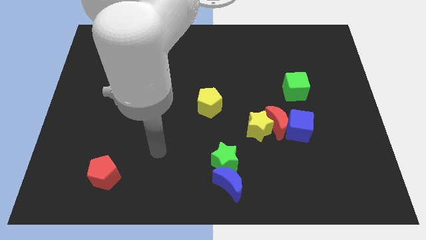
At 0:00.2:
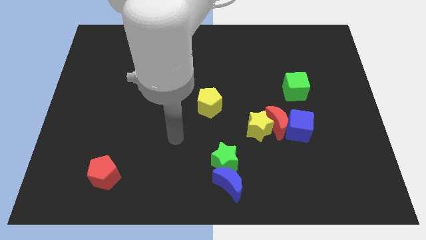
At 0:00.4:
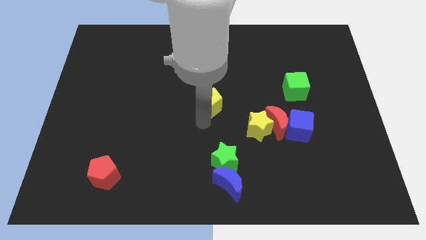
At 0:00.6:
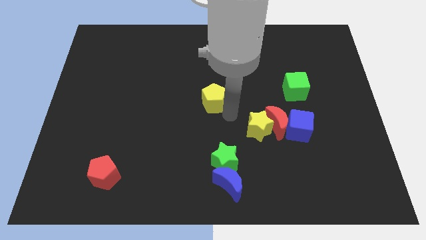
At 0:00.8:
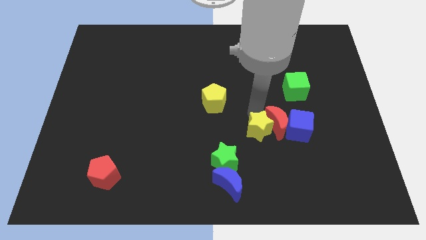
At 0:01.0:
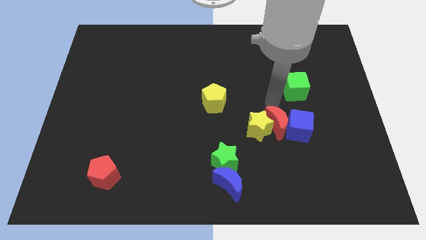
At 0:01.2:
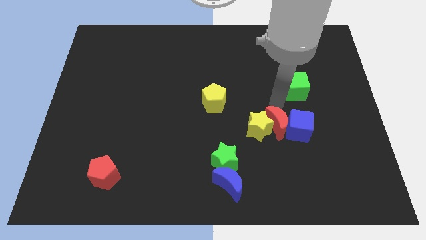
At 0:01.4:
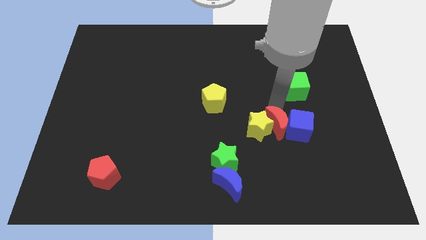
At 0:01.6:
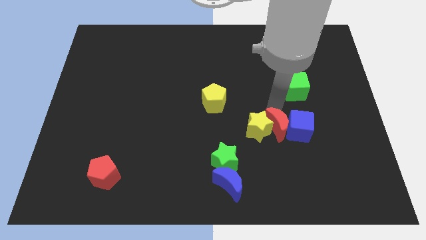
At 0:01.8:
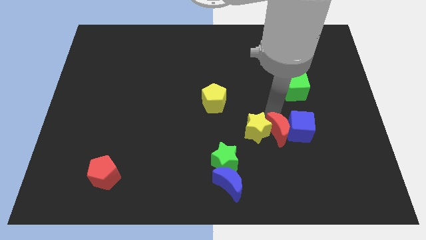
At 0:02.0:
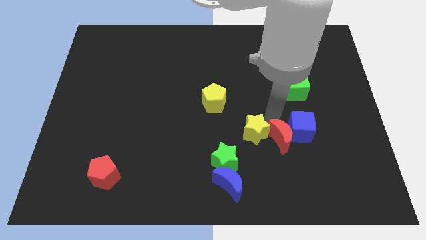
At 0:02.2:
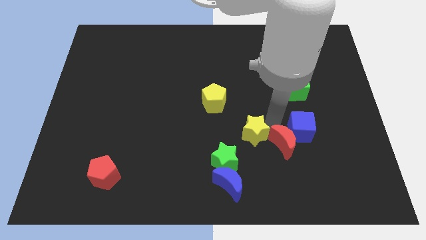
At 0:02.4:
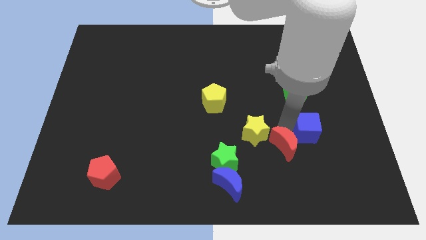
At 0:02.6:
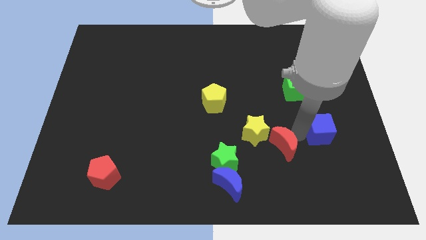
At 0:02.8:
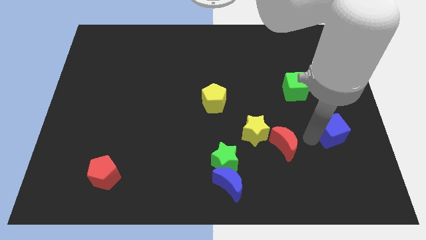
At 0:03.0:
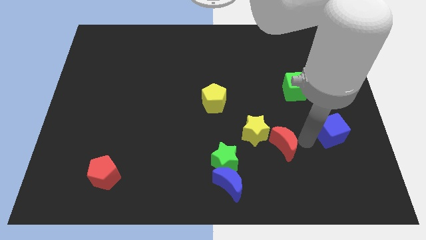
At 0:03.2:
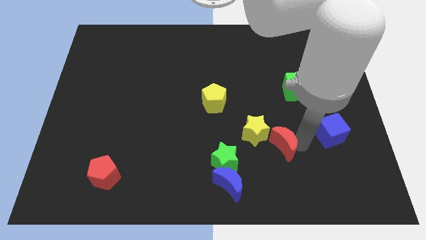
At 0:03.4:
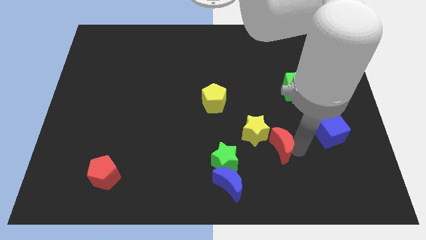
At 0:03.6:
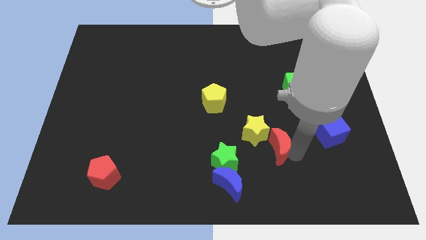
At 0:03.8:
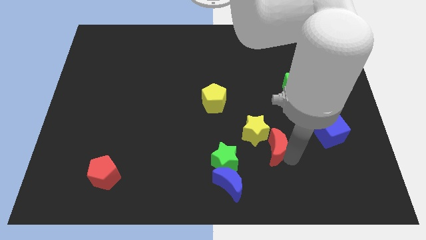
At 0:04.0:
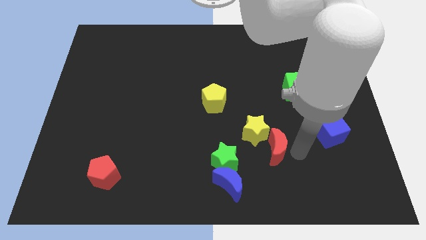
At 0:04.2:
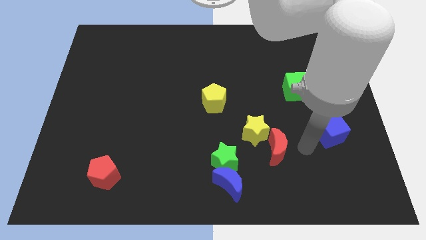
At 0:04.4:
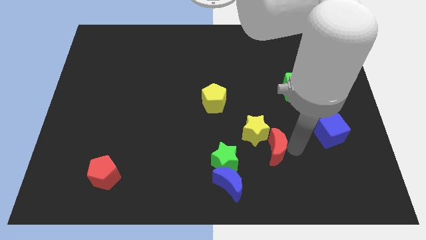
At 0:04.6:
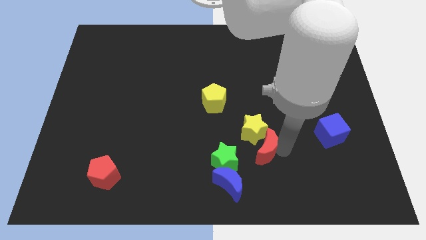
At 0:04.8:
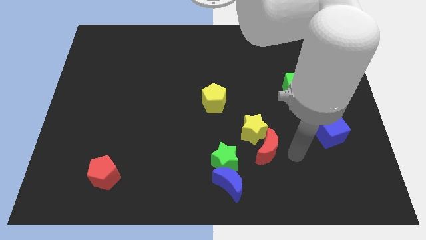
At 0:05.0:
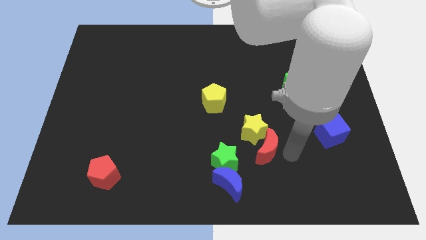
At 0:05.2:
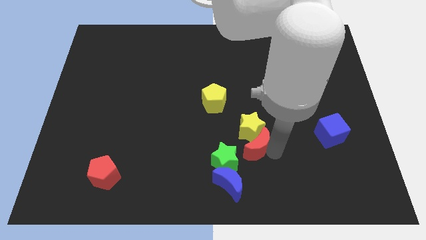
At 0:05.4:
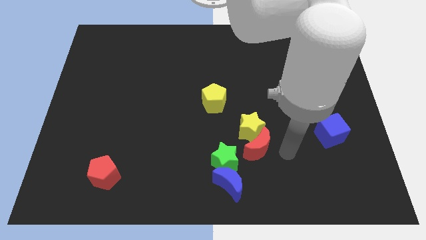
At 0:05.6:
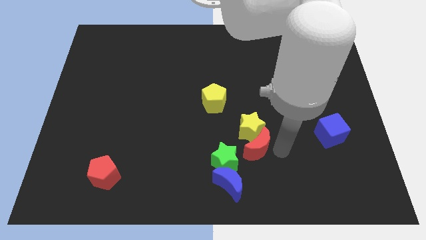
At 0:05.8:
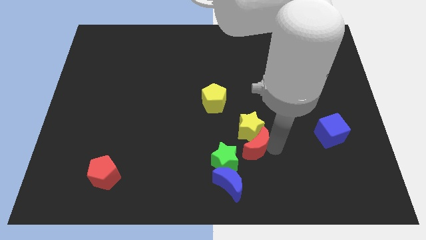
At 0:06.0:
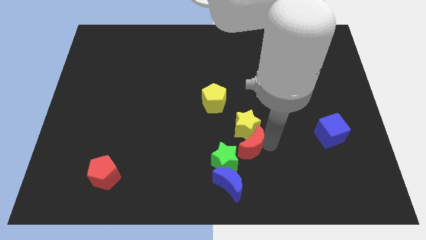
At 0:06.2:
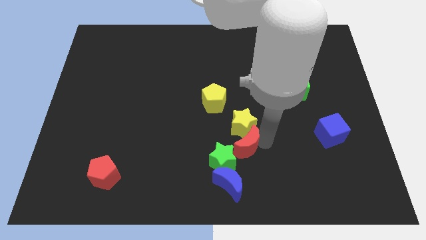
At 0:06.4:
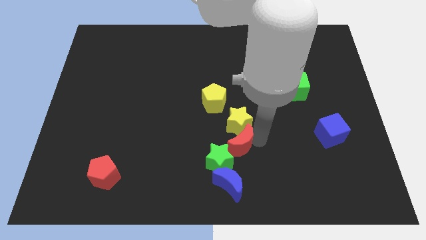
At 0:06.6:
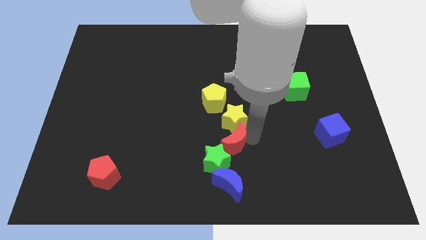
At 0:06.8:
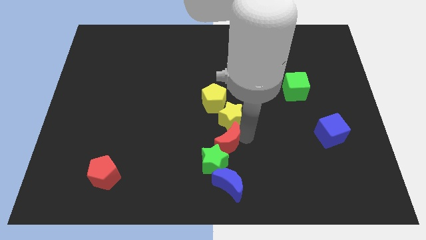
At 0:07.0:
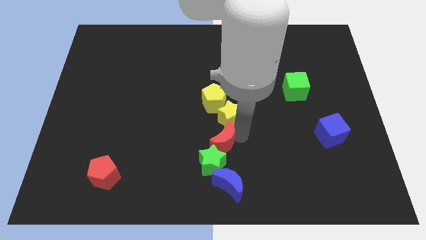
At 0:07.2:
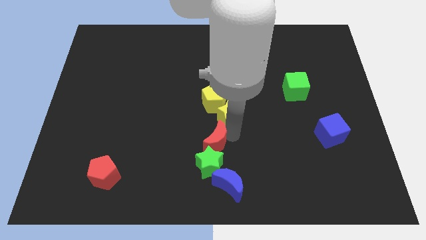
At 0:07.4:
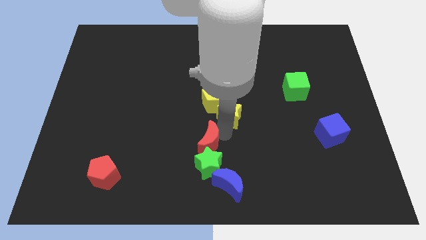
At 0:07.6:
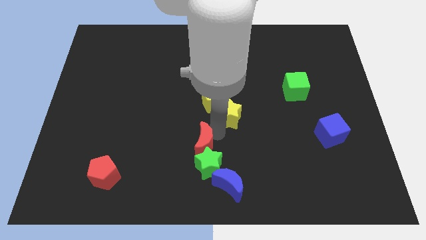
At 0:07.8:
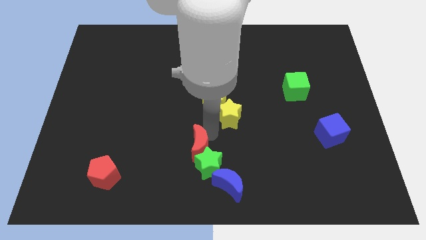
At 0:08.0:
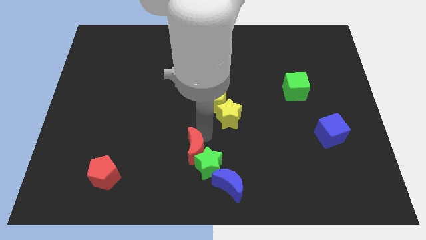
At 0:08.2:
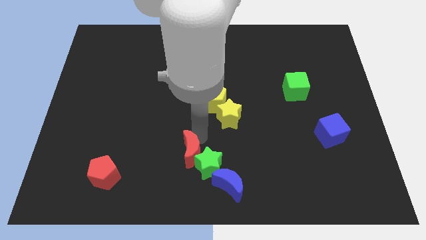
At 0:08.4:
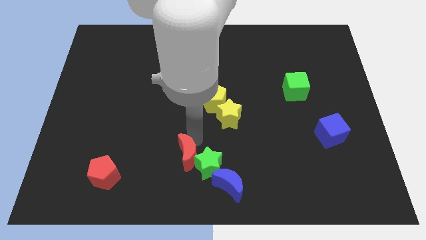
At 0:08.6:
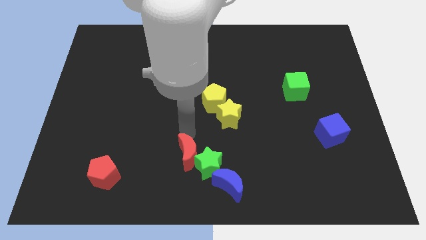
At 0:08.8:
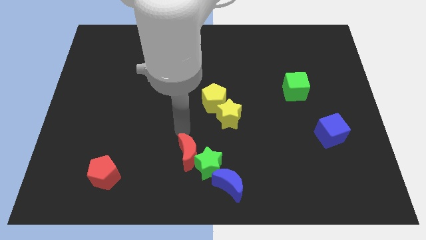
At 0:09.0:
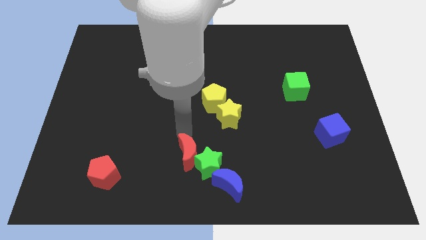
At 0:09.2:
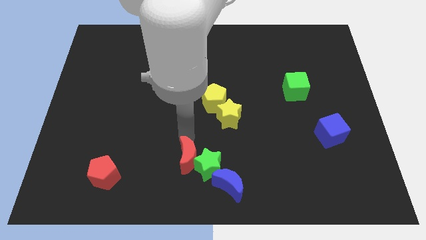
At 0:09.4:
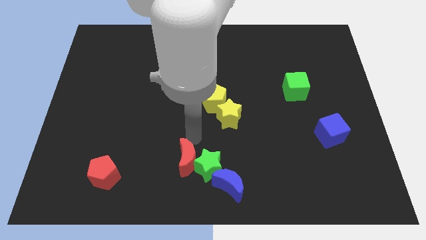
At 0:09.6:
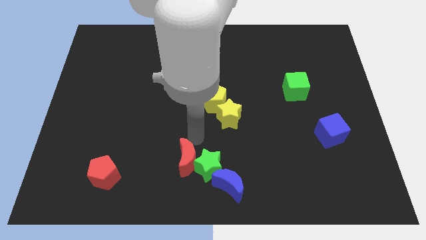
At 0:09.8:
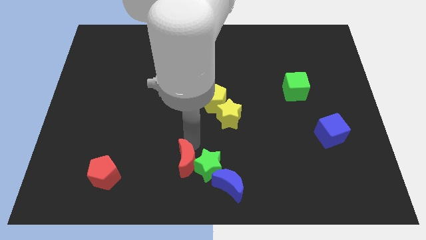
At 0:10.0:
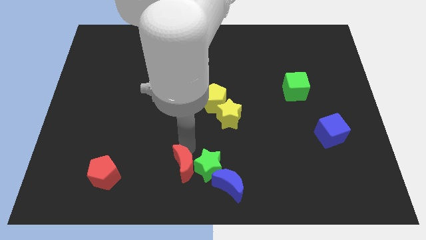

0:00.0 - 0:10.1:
move the red moon to the left of the blue moon

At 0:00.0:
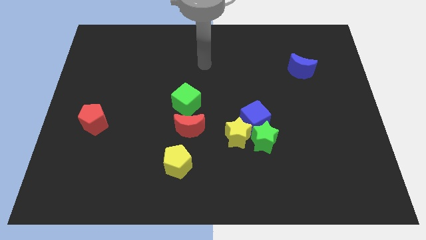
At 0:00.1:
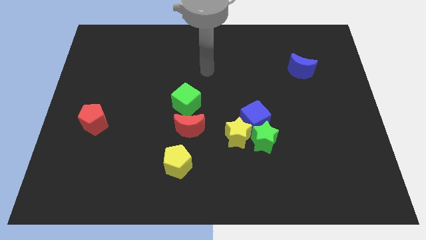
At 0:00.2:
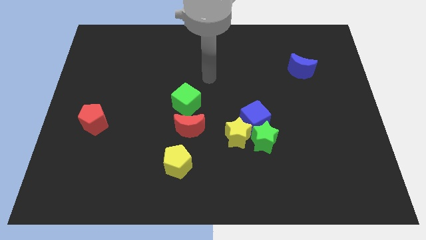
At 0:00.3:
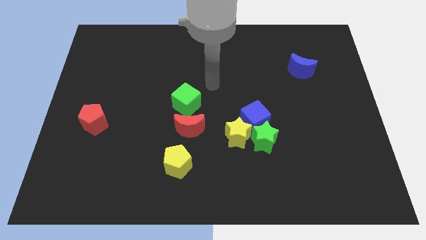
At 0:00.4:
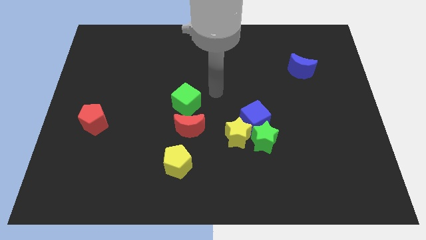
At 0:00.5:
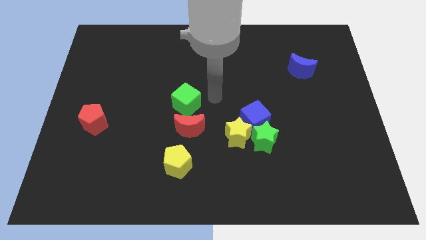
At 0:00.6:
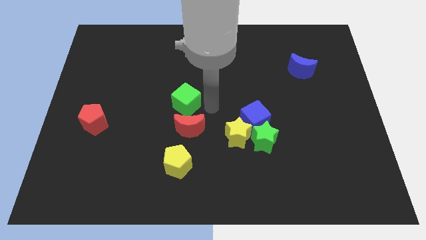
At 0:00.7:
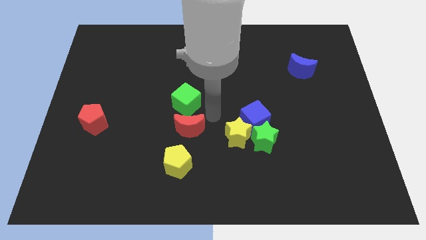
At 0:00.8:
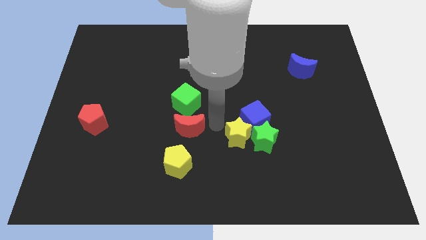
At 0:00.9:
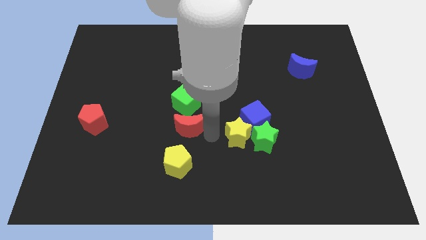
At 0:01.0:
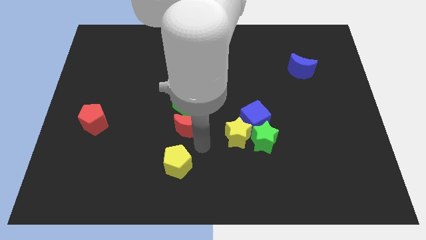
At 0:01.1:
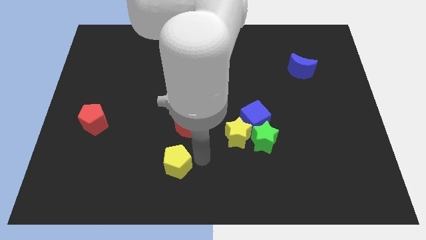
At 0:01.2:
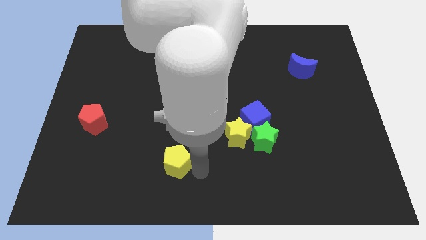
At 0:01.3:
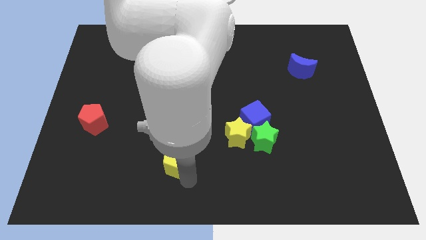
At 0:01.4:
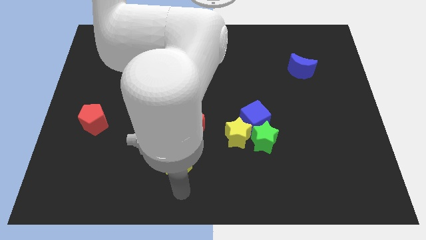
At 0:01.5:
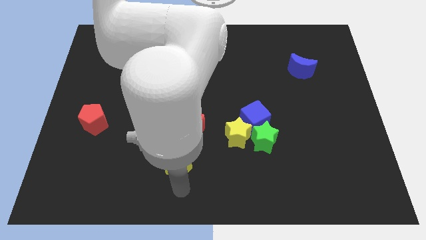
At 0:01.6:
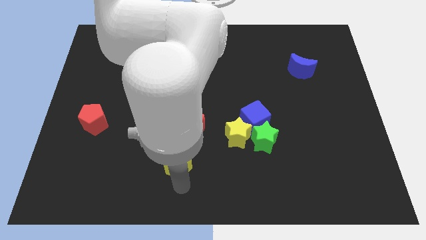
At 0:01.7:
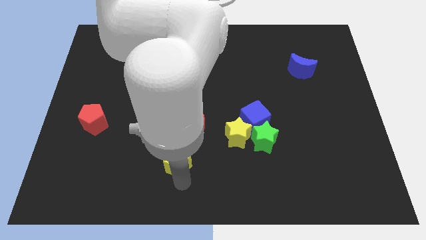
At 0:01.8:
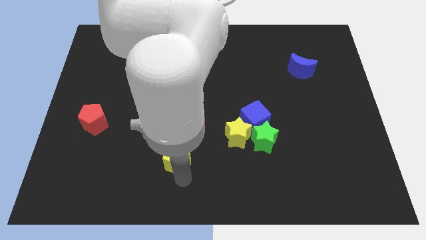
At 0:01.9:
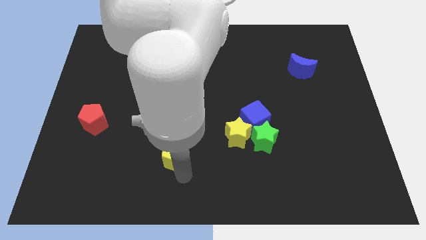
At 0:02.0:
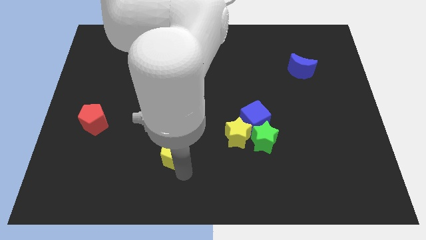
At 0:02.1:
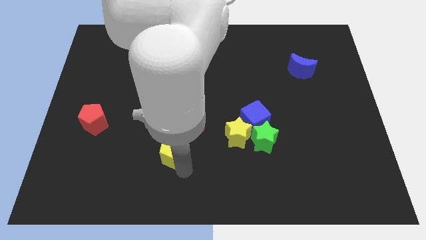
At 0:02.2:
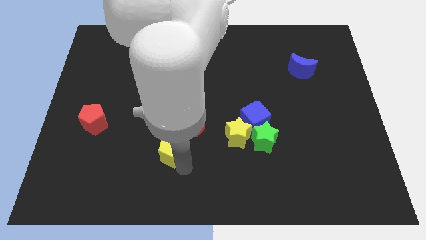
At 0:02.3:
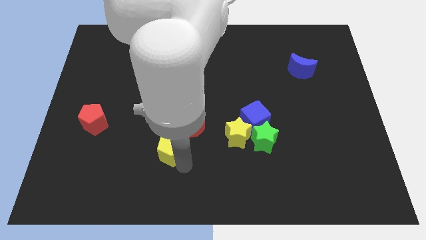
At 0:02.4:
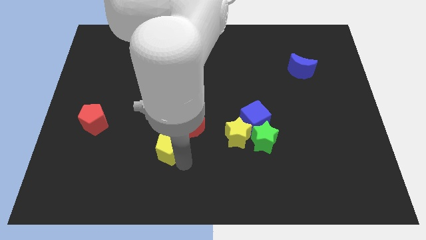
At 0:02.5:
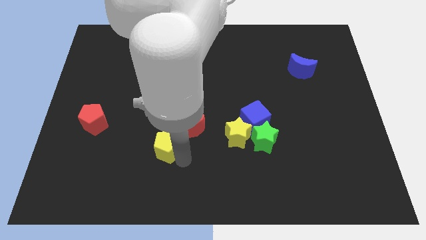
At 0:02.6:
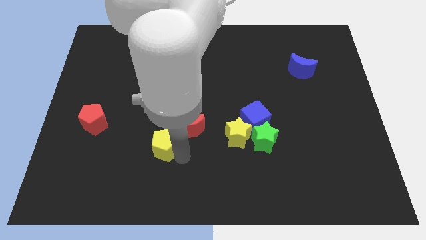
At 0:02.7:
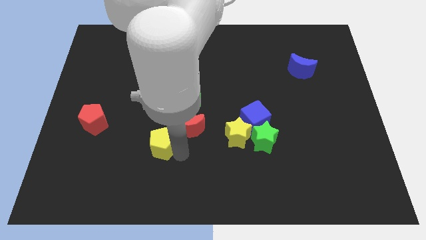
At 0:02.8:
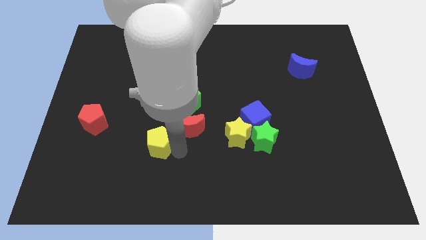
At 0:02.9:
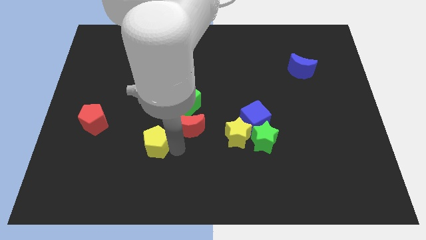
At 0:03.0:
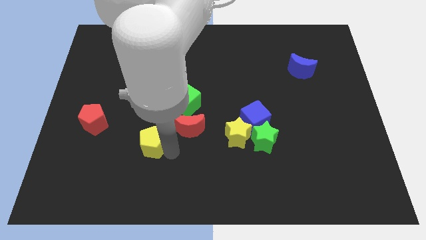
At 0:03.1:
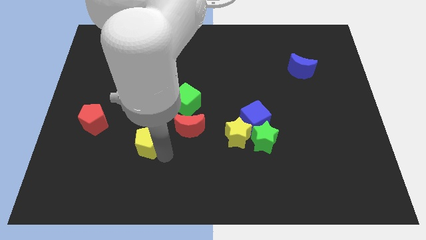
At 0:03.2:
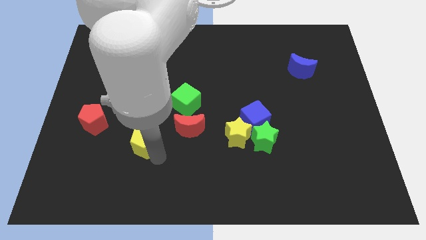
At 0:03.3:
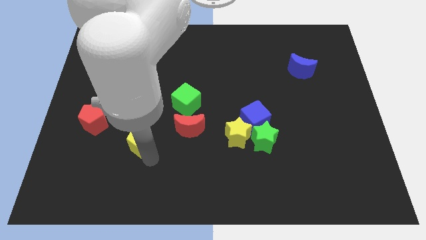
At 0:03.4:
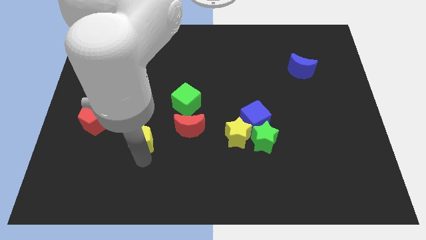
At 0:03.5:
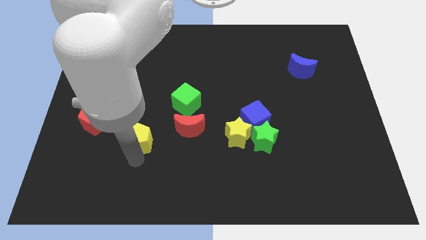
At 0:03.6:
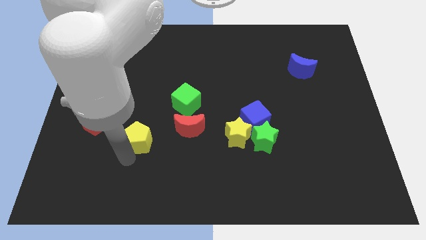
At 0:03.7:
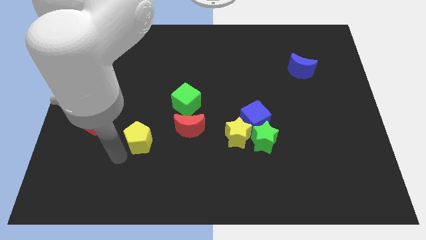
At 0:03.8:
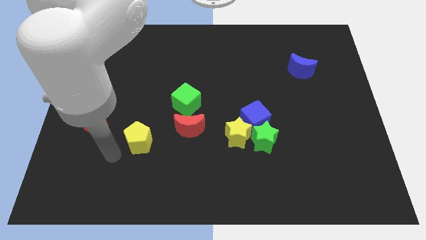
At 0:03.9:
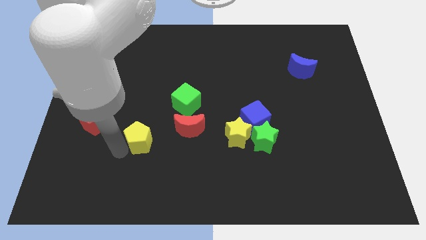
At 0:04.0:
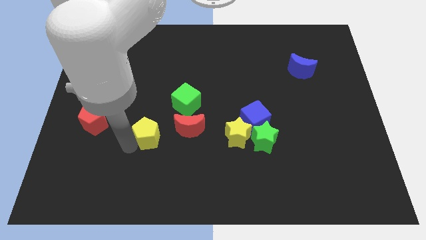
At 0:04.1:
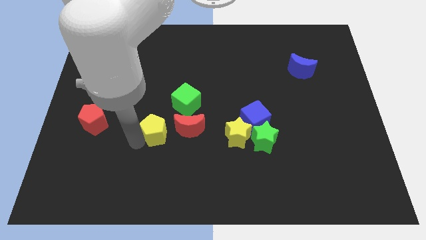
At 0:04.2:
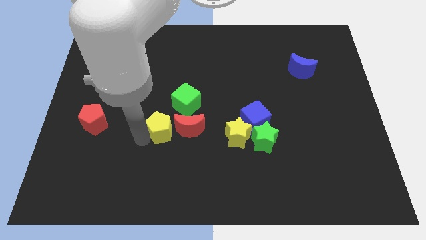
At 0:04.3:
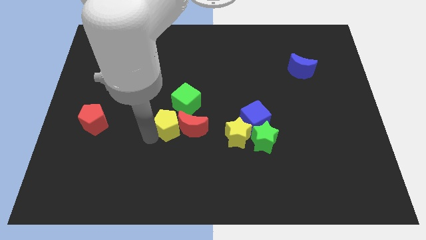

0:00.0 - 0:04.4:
push the yellow pentagon to the top left of the red moon
